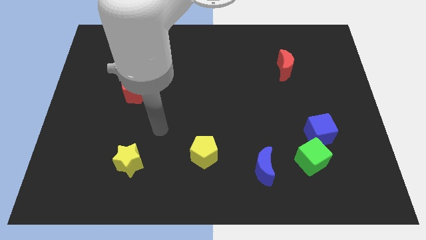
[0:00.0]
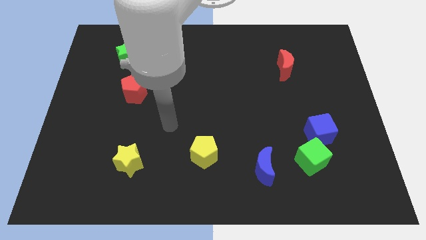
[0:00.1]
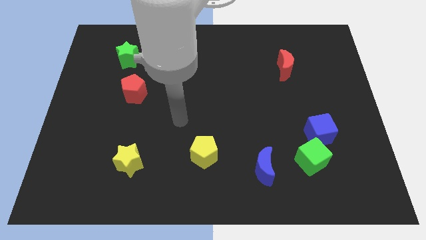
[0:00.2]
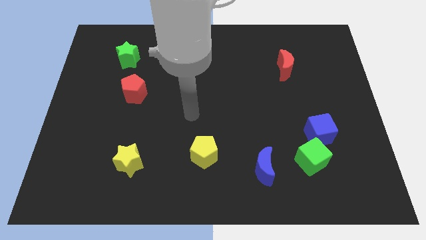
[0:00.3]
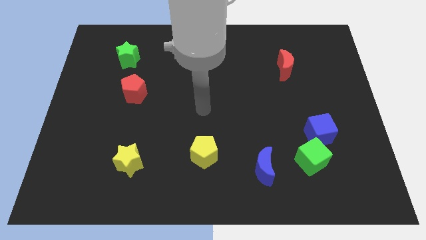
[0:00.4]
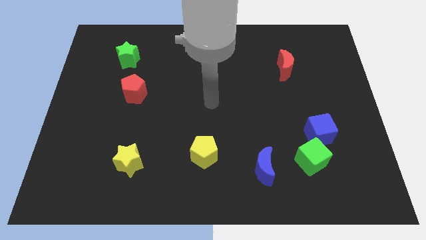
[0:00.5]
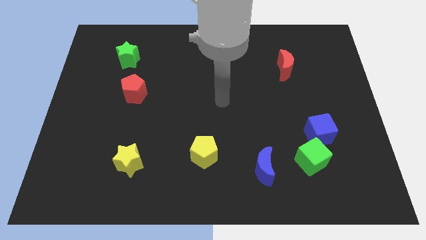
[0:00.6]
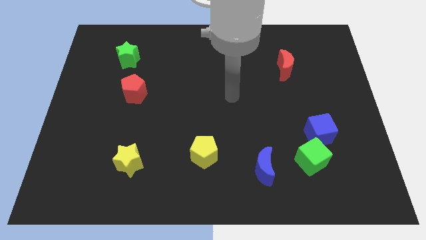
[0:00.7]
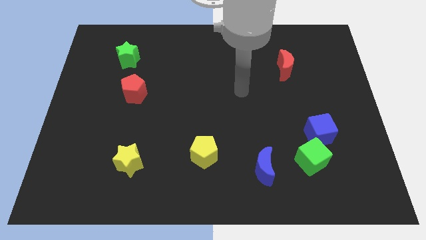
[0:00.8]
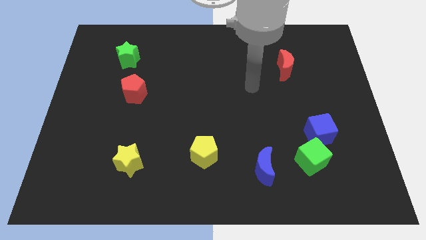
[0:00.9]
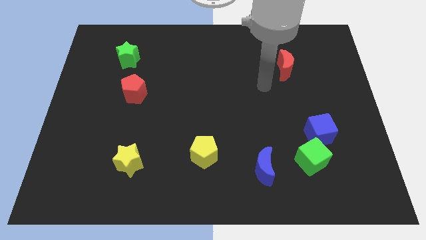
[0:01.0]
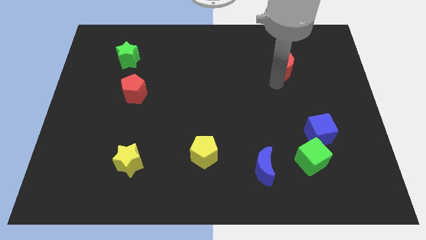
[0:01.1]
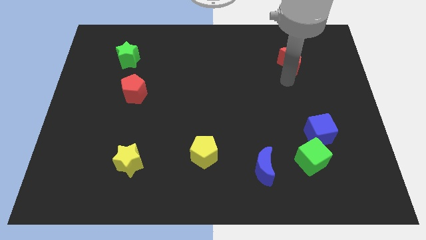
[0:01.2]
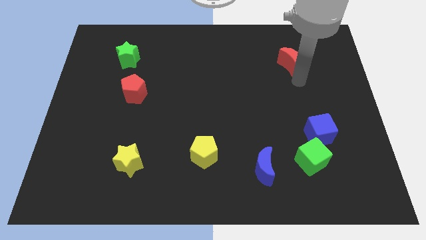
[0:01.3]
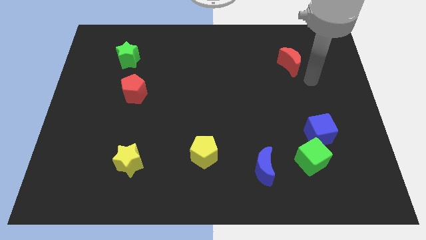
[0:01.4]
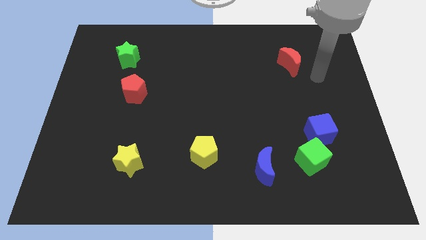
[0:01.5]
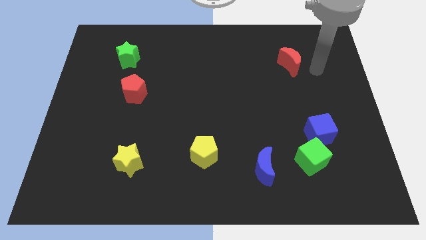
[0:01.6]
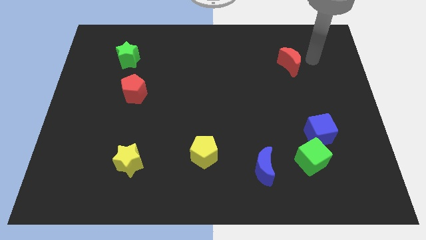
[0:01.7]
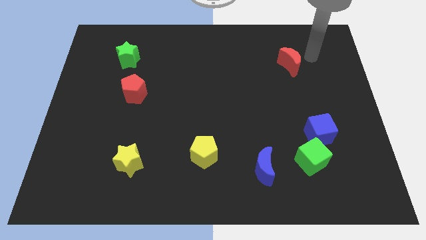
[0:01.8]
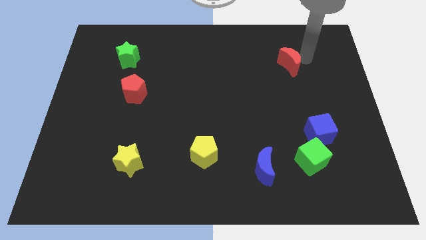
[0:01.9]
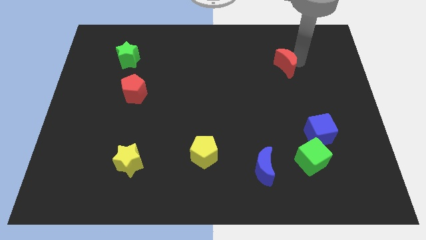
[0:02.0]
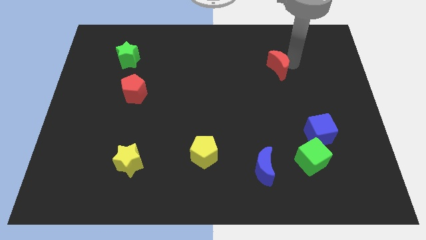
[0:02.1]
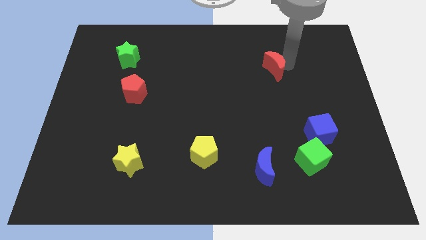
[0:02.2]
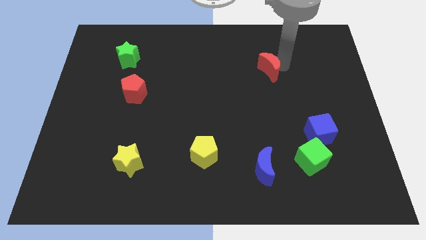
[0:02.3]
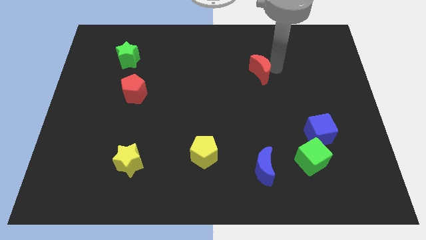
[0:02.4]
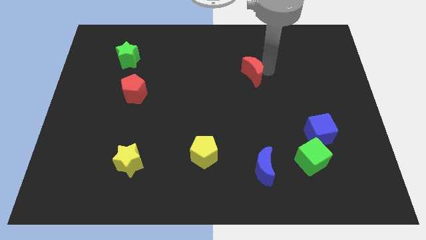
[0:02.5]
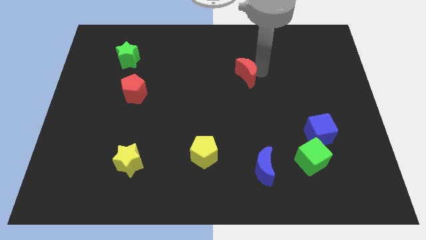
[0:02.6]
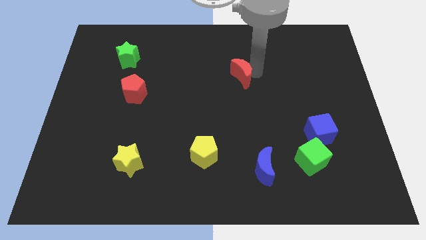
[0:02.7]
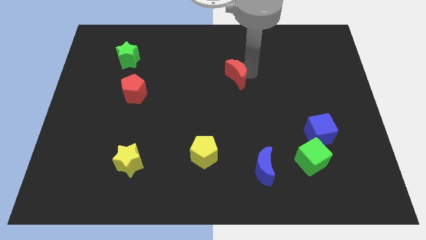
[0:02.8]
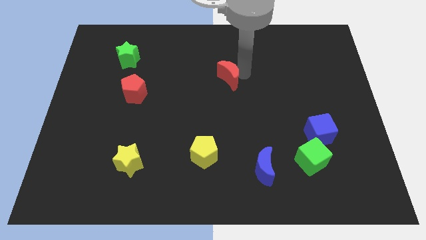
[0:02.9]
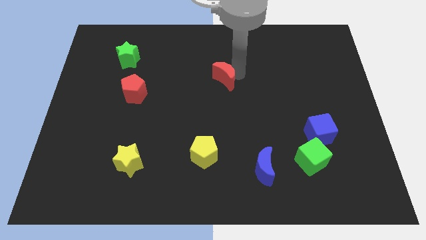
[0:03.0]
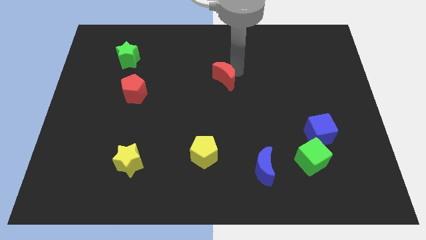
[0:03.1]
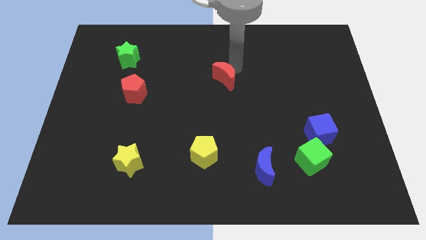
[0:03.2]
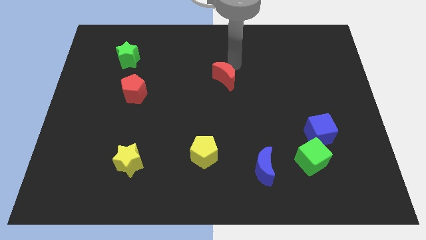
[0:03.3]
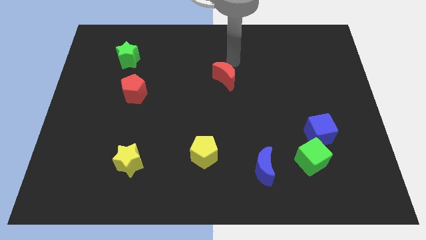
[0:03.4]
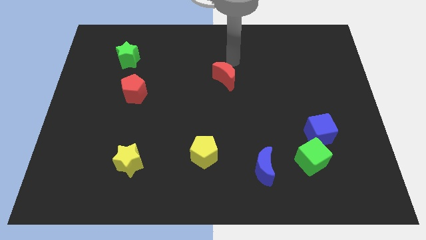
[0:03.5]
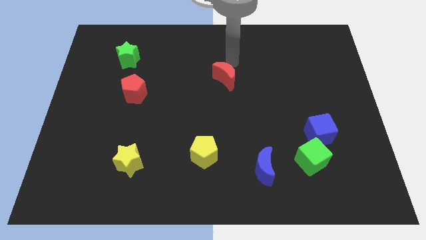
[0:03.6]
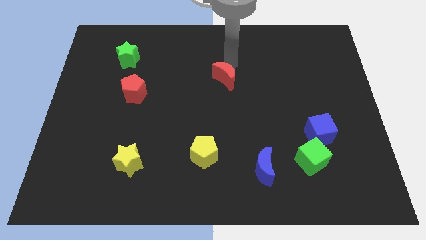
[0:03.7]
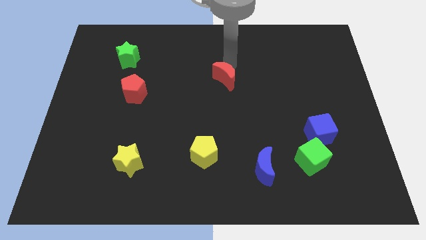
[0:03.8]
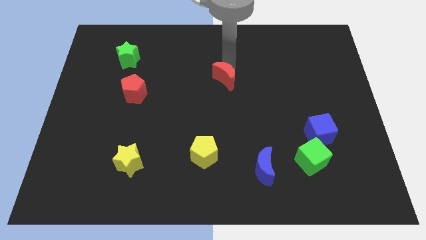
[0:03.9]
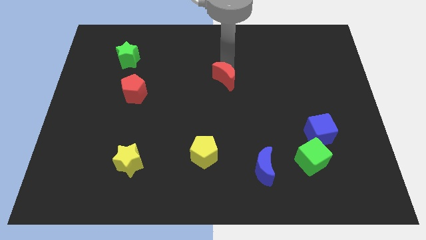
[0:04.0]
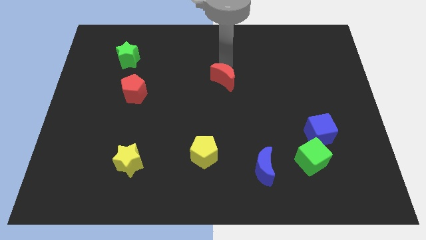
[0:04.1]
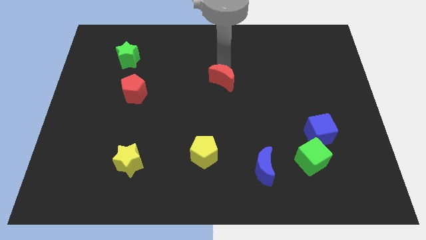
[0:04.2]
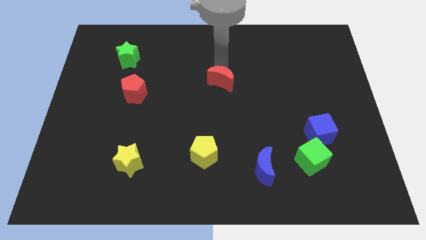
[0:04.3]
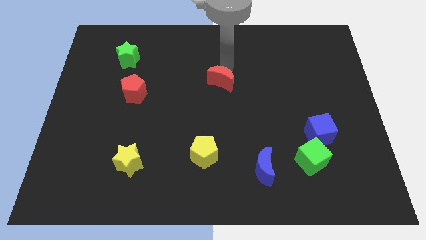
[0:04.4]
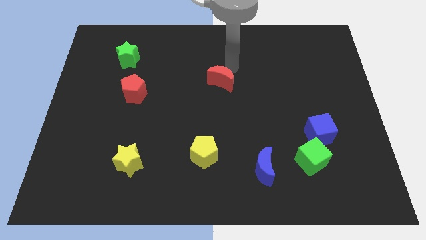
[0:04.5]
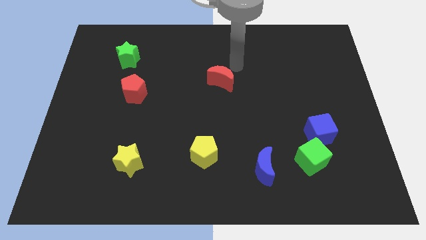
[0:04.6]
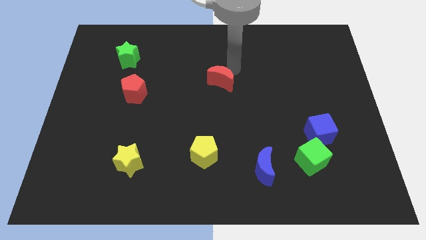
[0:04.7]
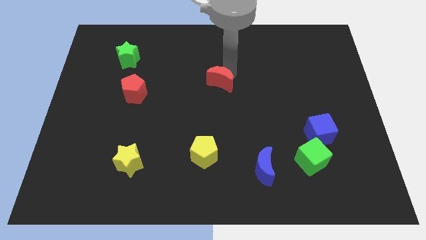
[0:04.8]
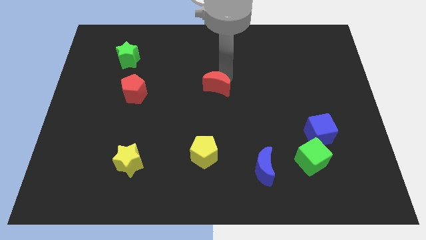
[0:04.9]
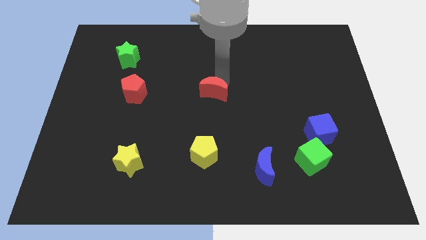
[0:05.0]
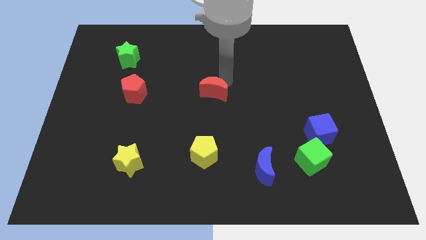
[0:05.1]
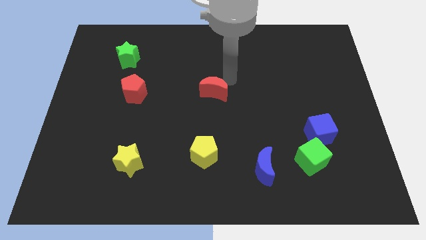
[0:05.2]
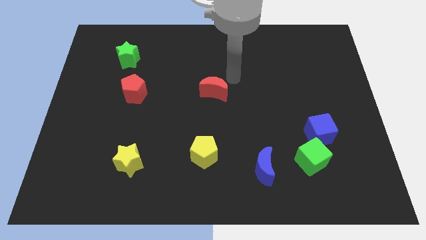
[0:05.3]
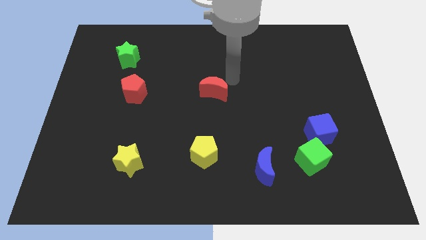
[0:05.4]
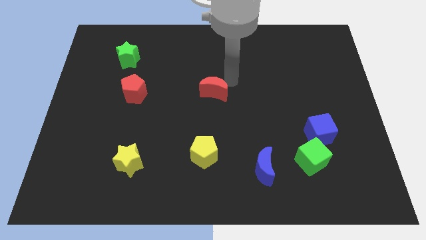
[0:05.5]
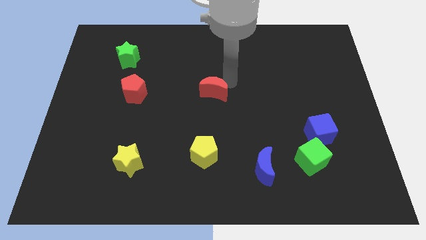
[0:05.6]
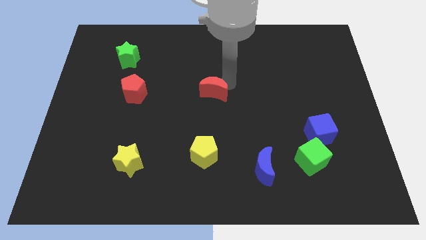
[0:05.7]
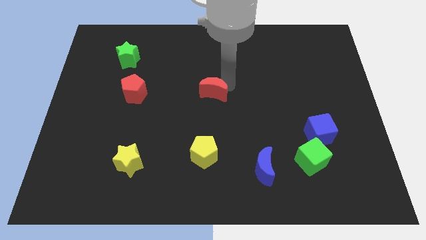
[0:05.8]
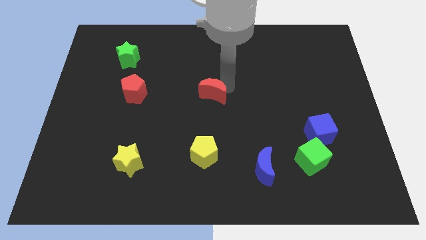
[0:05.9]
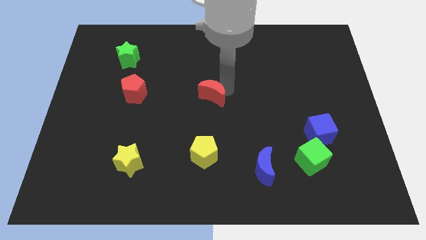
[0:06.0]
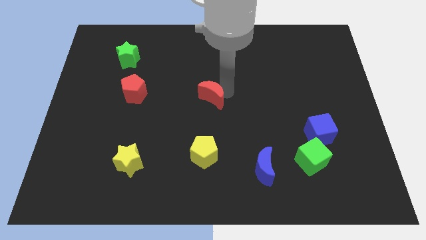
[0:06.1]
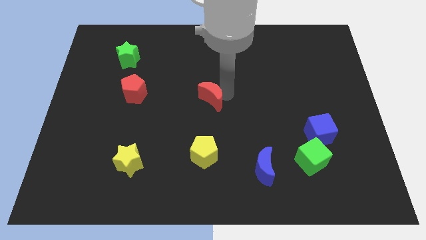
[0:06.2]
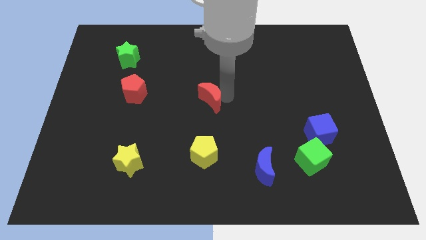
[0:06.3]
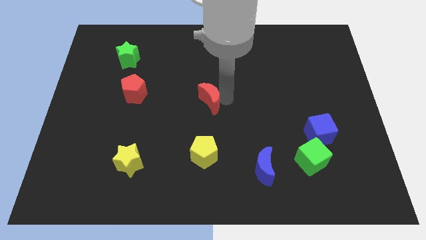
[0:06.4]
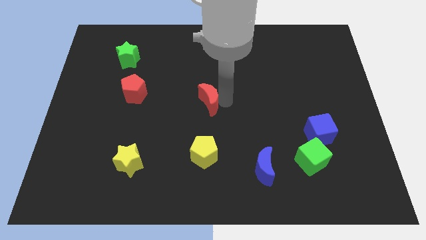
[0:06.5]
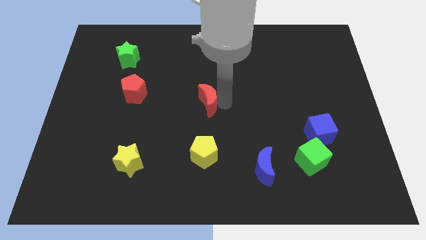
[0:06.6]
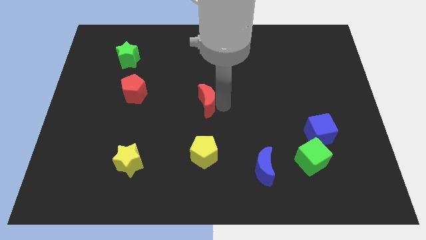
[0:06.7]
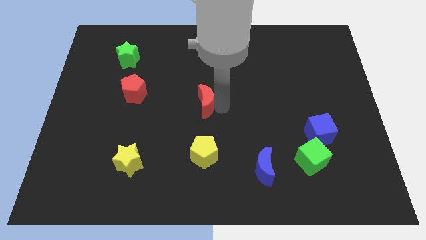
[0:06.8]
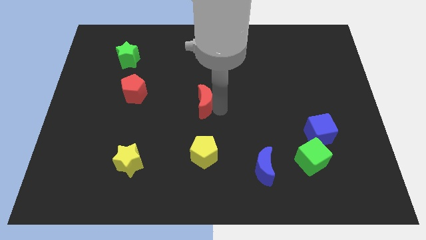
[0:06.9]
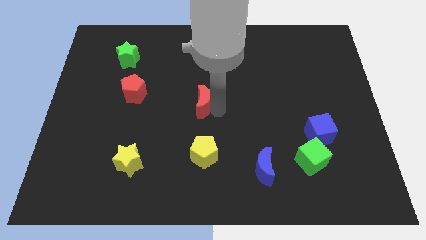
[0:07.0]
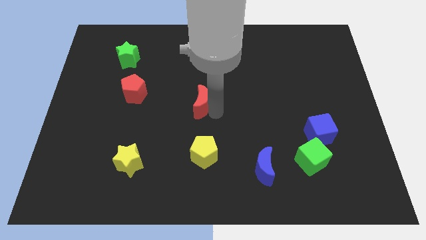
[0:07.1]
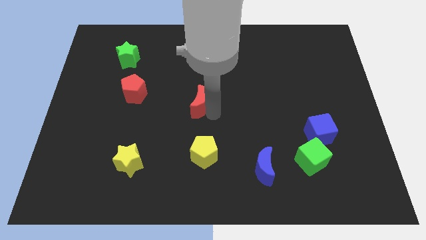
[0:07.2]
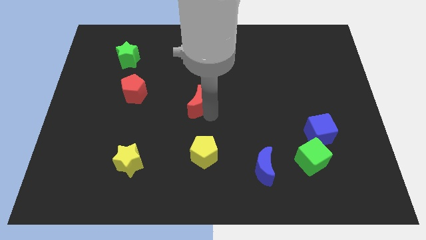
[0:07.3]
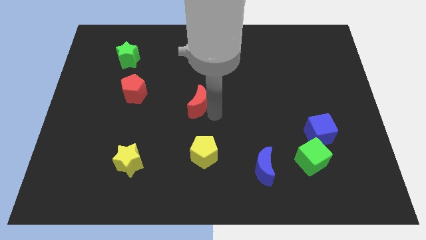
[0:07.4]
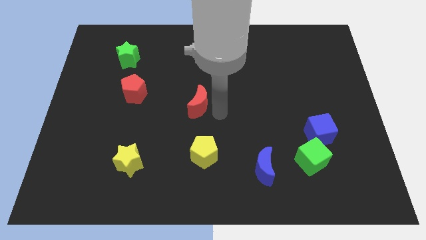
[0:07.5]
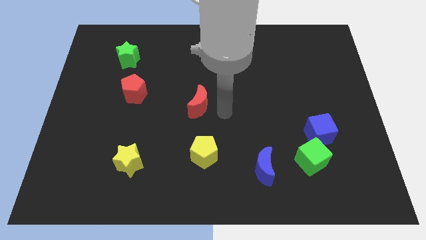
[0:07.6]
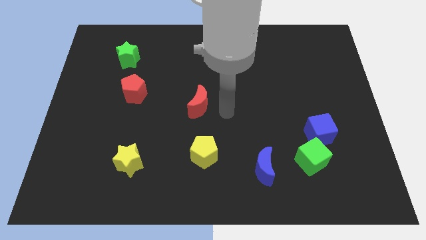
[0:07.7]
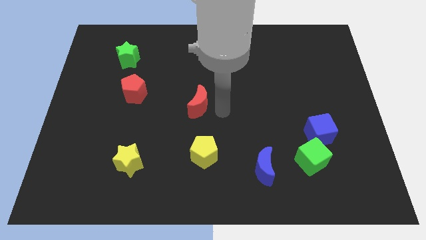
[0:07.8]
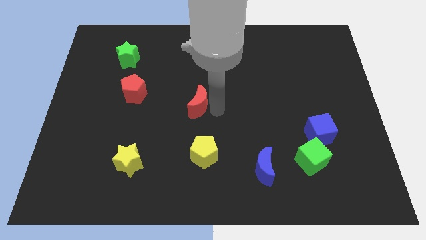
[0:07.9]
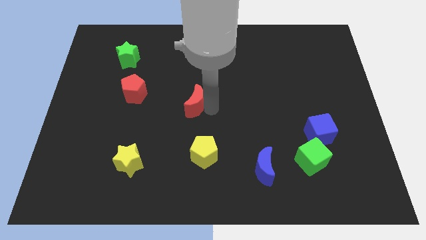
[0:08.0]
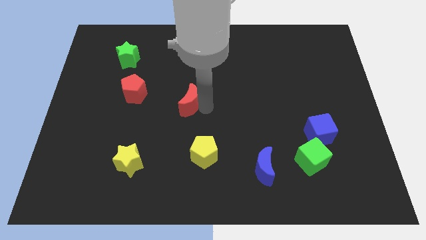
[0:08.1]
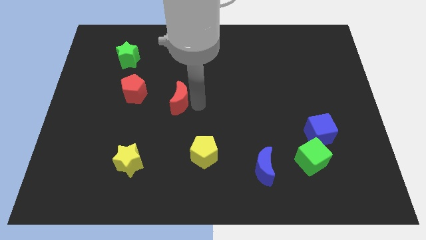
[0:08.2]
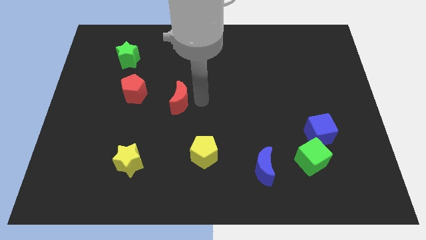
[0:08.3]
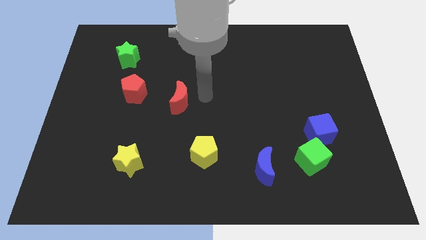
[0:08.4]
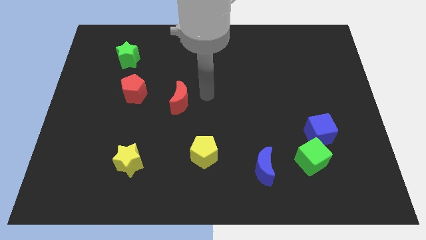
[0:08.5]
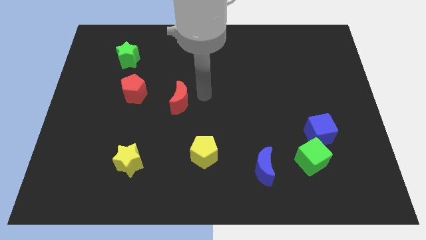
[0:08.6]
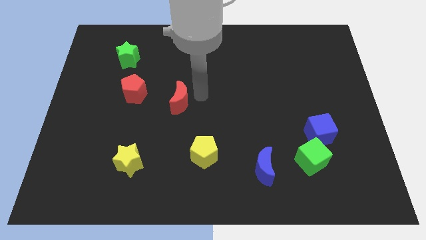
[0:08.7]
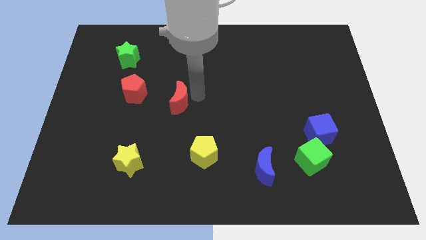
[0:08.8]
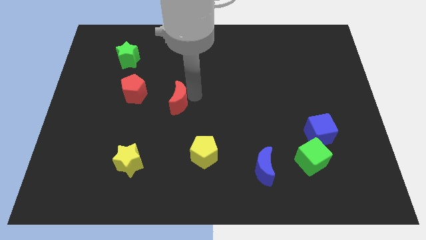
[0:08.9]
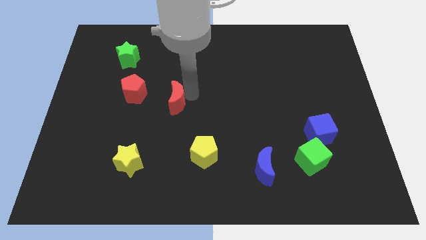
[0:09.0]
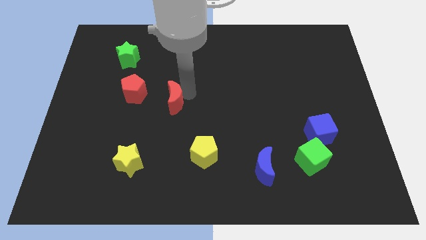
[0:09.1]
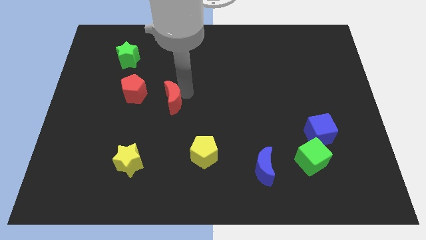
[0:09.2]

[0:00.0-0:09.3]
slide the red moon to the bottom right of the red pentagon
